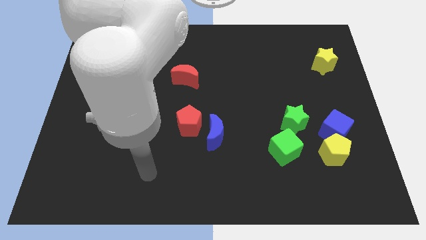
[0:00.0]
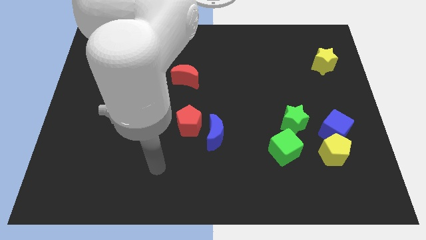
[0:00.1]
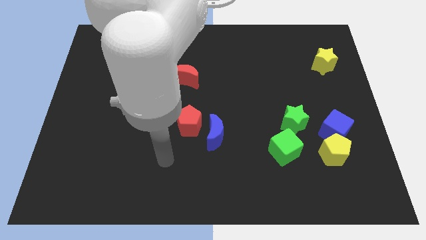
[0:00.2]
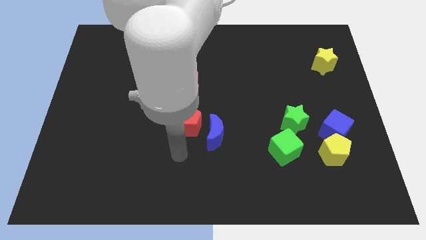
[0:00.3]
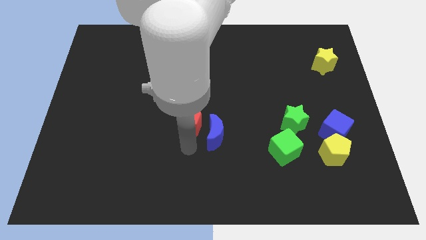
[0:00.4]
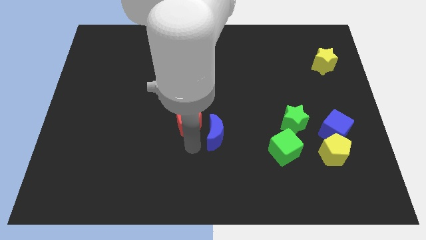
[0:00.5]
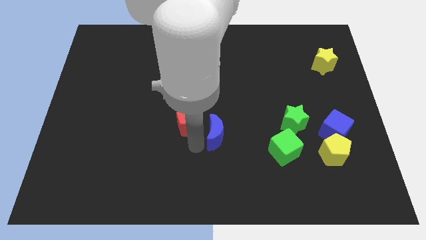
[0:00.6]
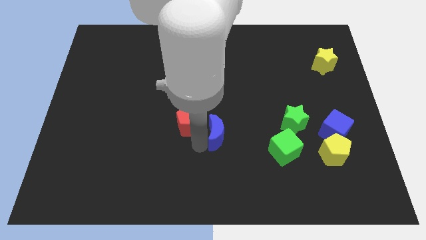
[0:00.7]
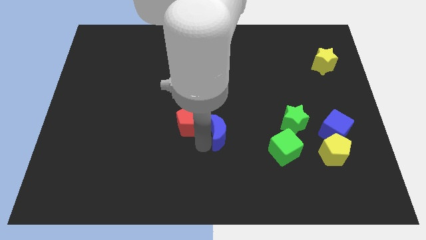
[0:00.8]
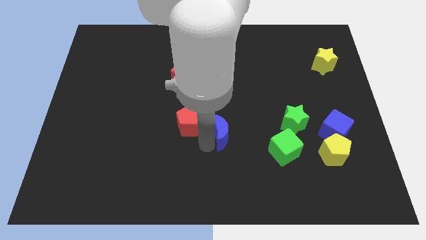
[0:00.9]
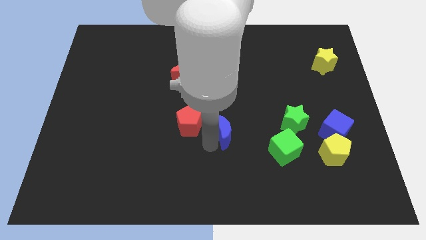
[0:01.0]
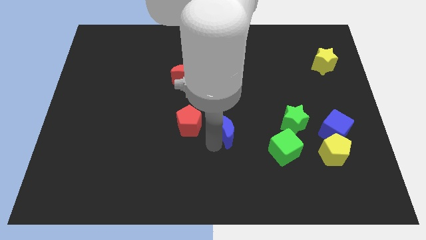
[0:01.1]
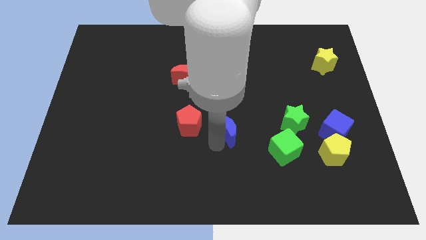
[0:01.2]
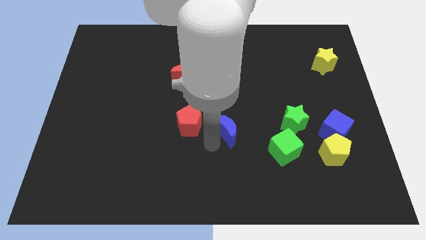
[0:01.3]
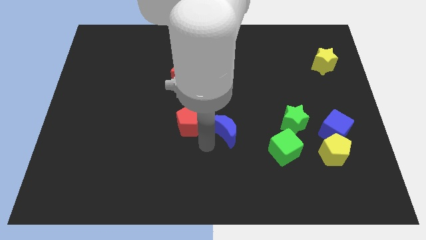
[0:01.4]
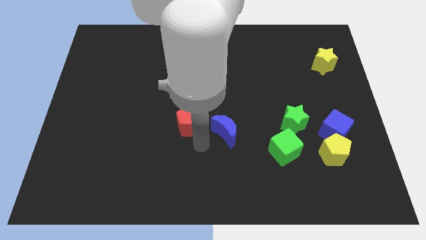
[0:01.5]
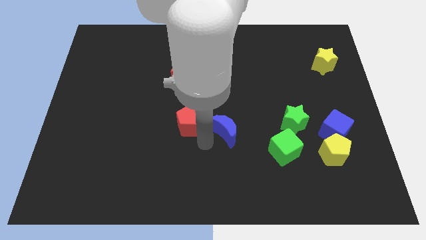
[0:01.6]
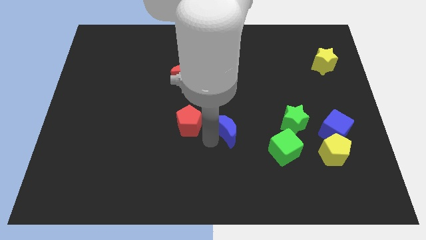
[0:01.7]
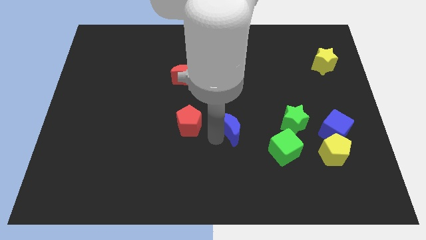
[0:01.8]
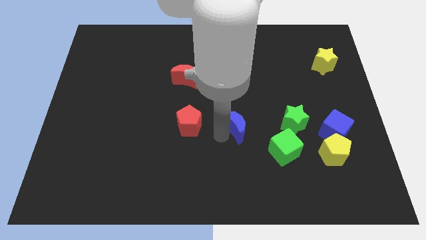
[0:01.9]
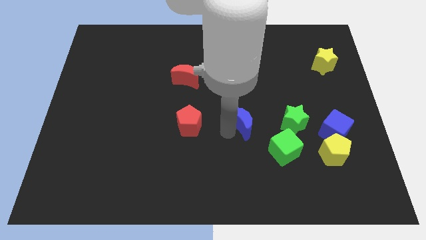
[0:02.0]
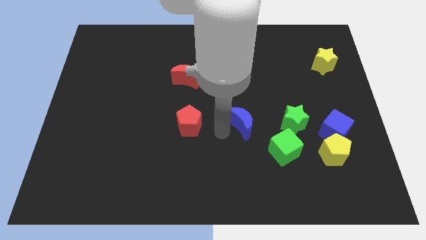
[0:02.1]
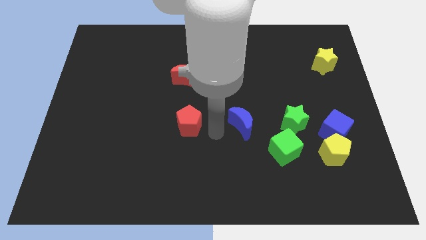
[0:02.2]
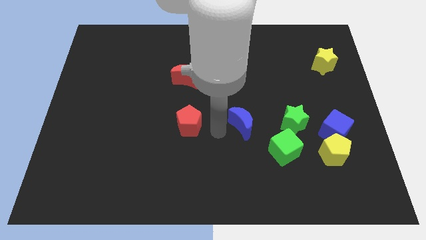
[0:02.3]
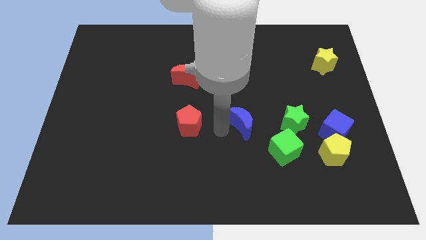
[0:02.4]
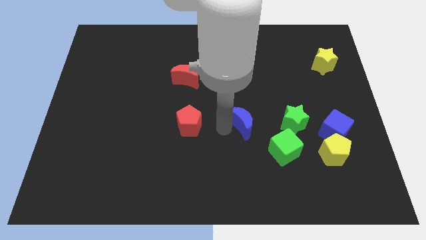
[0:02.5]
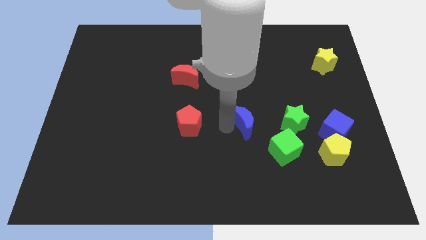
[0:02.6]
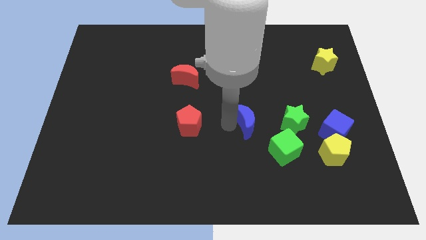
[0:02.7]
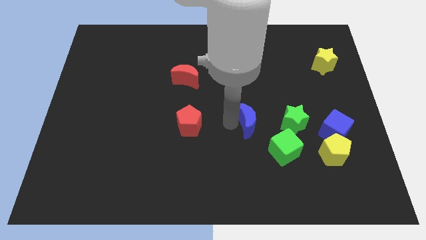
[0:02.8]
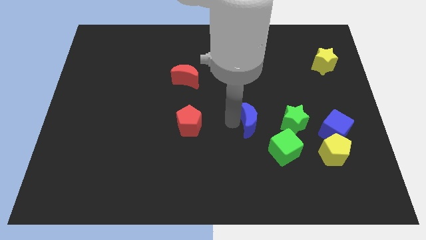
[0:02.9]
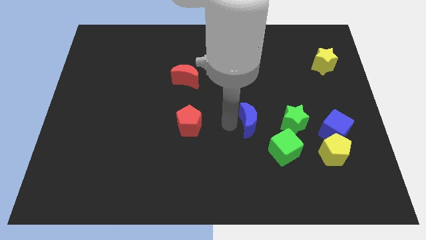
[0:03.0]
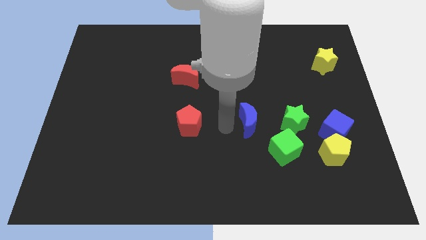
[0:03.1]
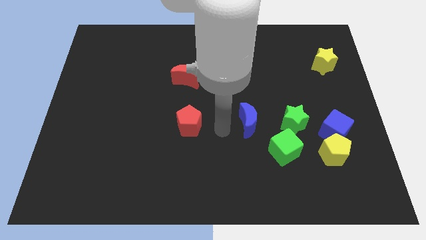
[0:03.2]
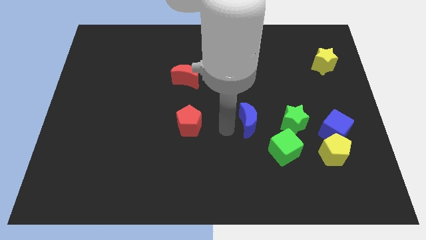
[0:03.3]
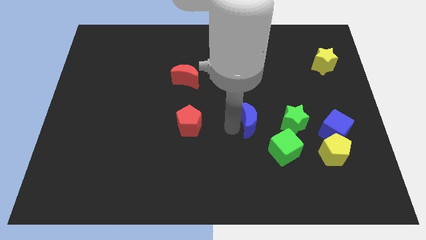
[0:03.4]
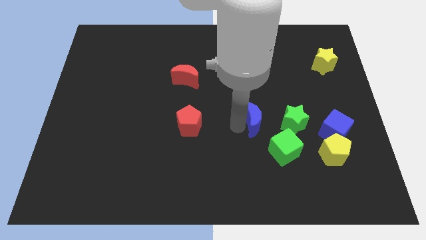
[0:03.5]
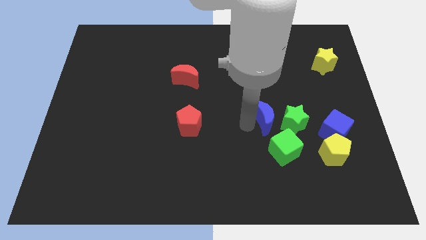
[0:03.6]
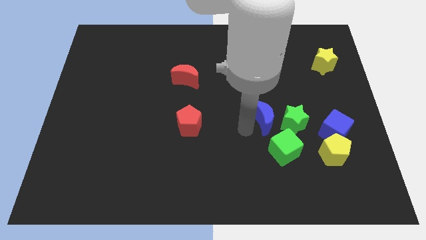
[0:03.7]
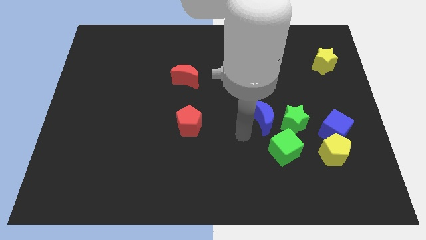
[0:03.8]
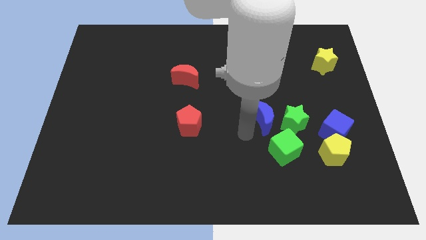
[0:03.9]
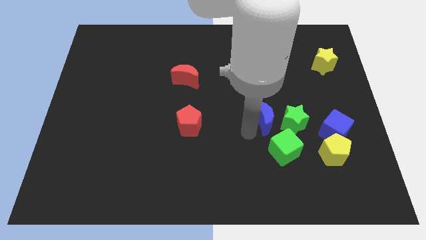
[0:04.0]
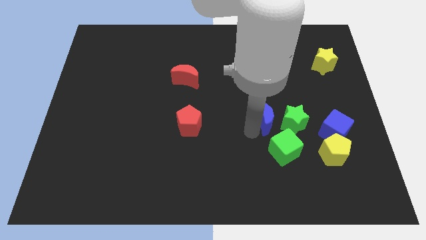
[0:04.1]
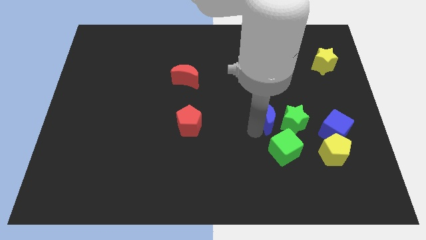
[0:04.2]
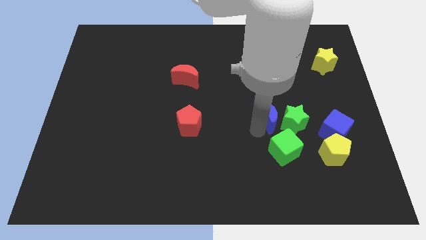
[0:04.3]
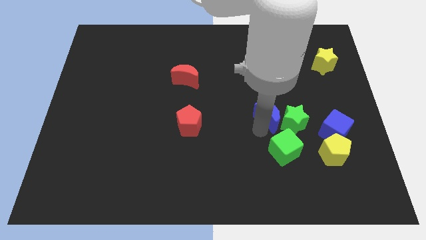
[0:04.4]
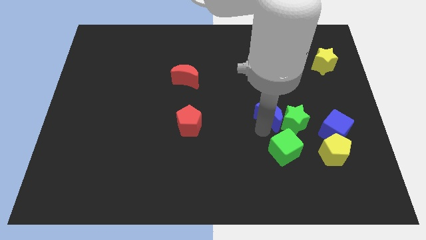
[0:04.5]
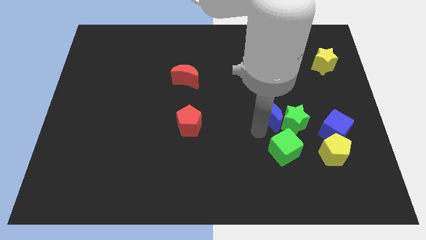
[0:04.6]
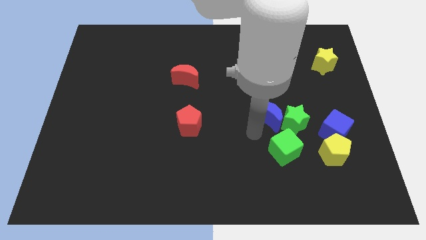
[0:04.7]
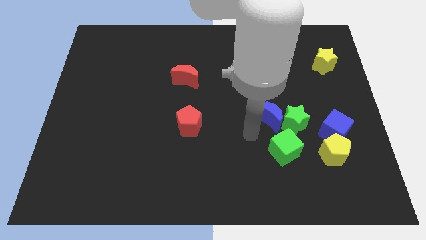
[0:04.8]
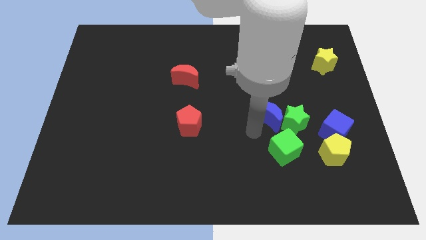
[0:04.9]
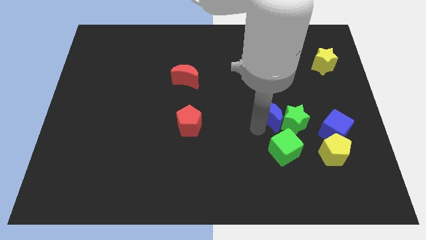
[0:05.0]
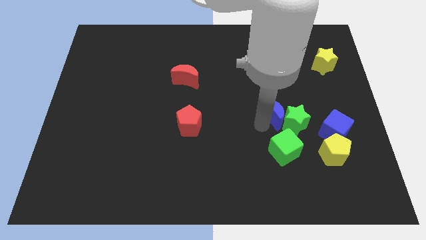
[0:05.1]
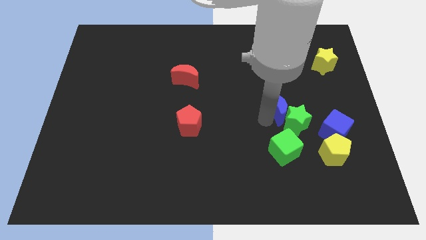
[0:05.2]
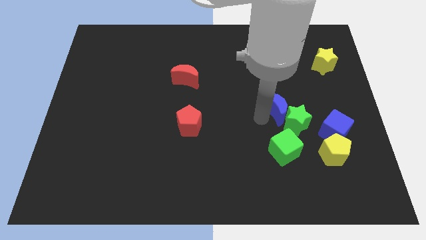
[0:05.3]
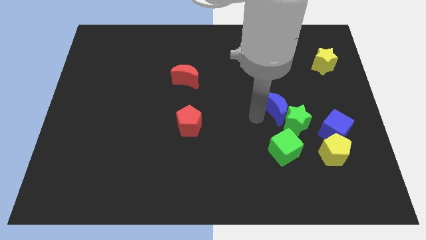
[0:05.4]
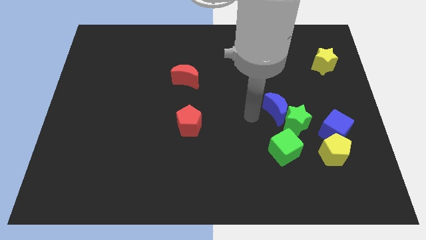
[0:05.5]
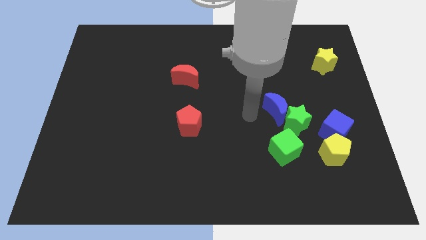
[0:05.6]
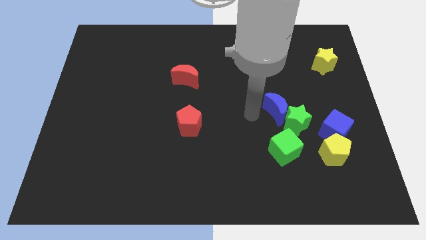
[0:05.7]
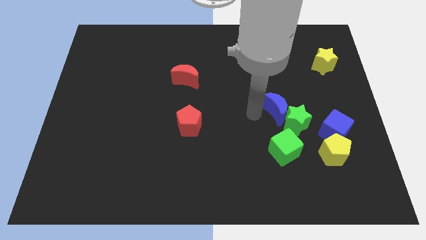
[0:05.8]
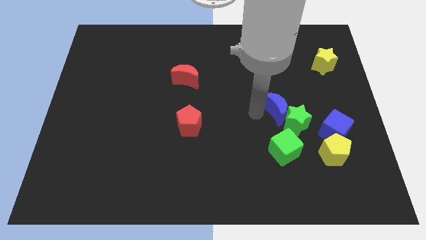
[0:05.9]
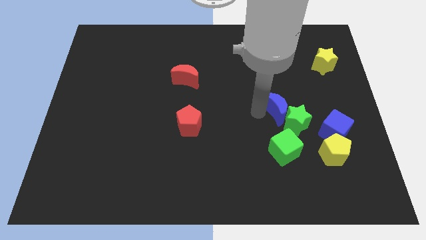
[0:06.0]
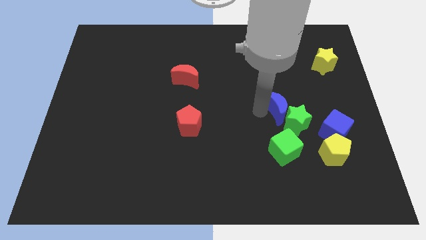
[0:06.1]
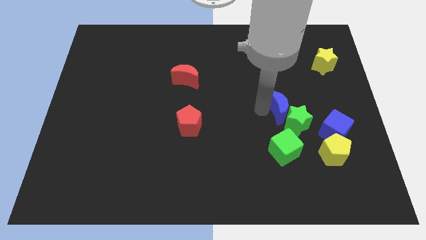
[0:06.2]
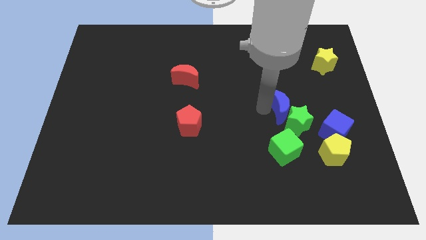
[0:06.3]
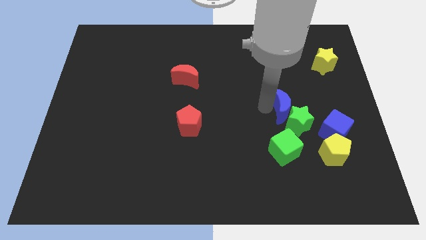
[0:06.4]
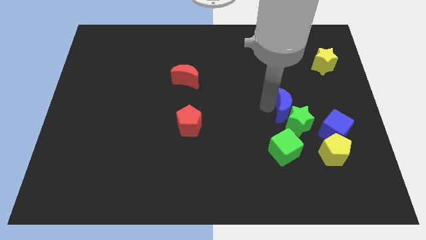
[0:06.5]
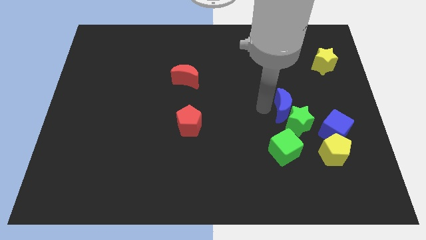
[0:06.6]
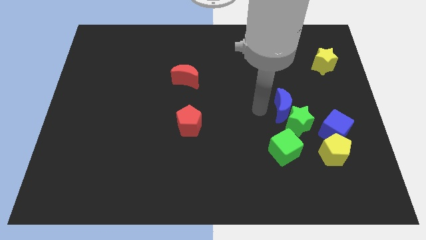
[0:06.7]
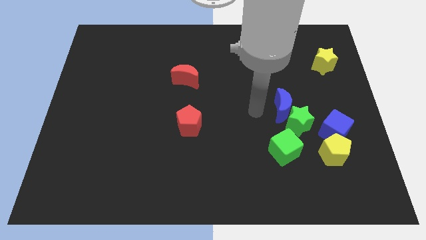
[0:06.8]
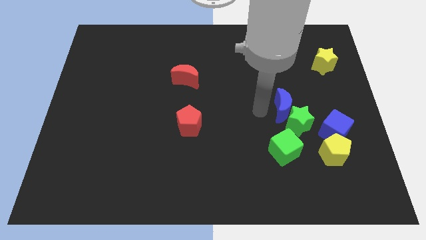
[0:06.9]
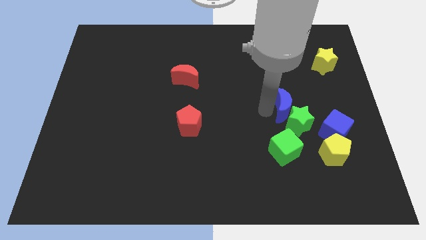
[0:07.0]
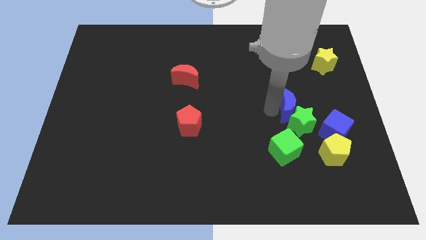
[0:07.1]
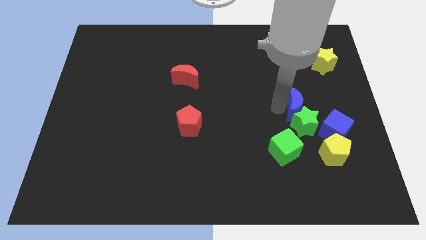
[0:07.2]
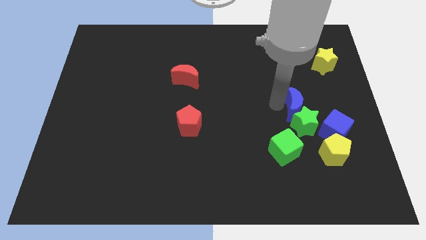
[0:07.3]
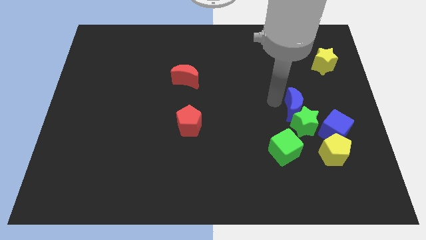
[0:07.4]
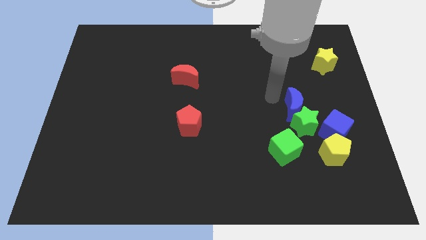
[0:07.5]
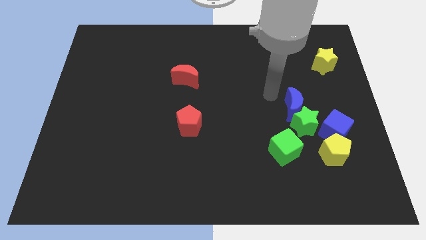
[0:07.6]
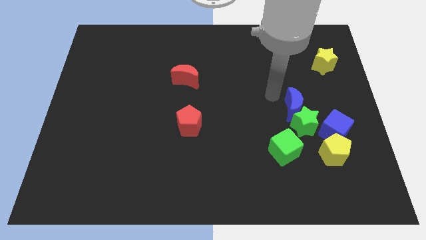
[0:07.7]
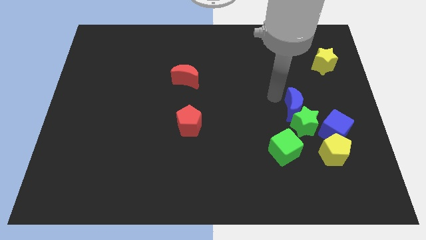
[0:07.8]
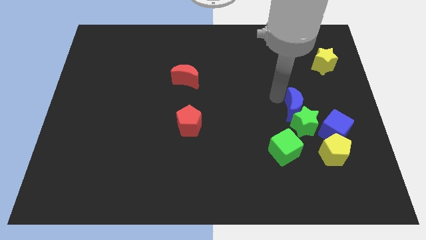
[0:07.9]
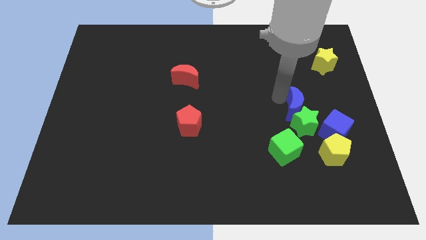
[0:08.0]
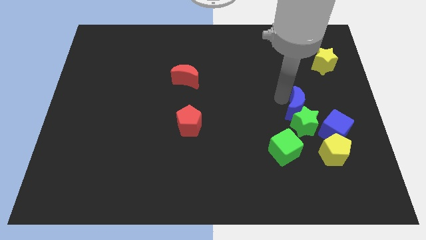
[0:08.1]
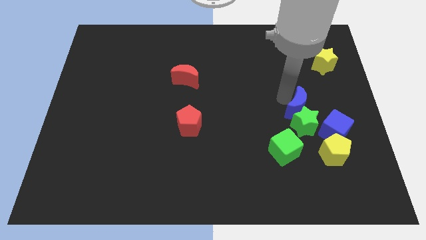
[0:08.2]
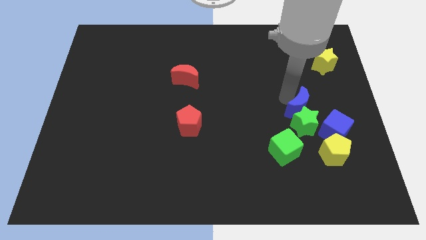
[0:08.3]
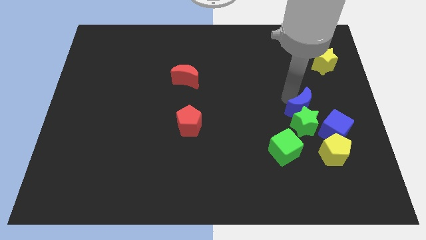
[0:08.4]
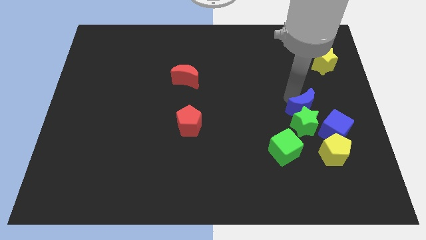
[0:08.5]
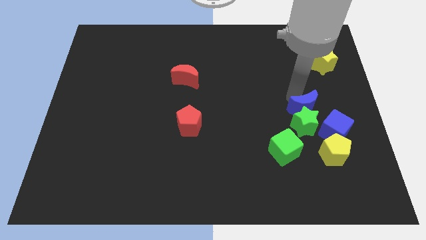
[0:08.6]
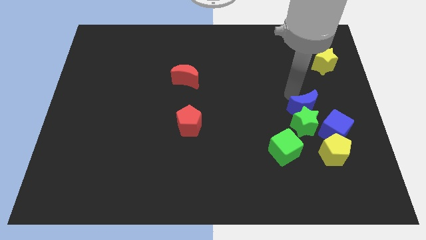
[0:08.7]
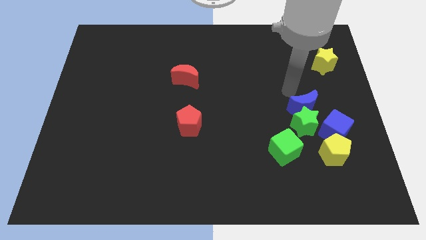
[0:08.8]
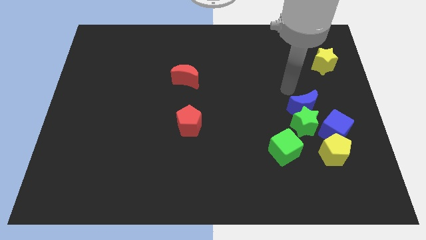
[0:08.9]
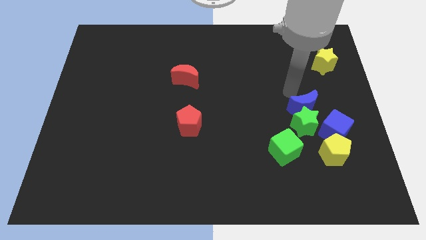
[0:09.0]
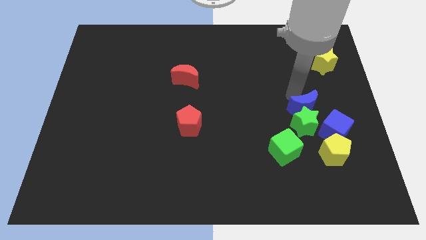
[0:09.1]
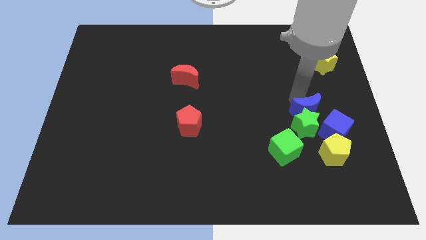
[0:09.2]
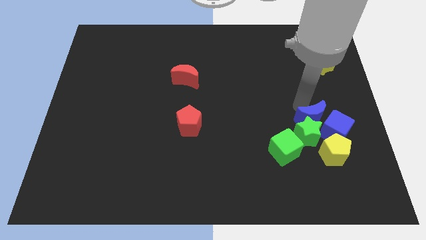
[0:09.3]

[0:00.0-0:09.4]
slide the blue moon close to the blue cube
